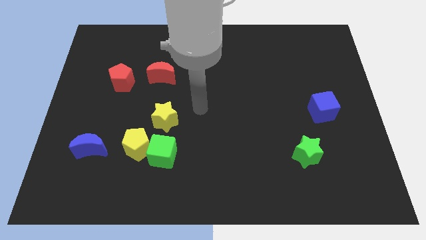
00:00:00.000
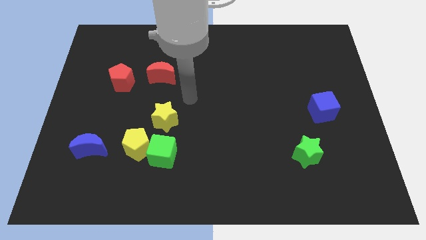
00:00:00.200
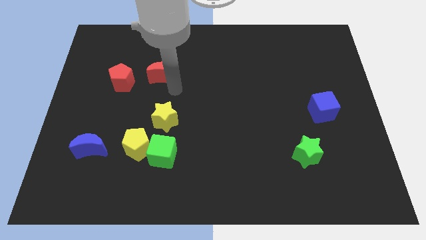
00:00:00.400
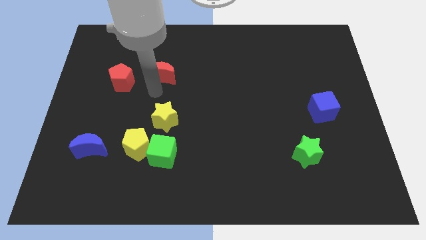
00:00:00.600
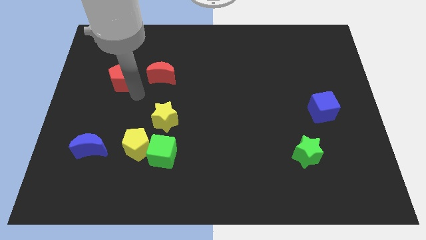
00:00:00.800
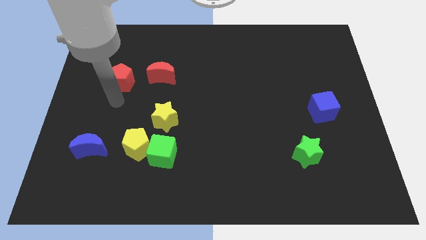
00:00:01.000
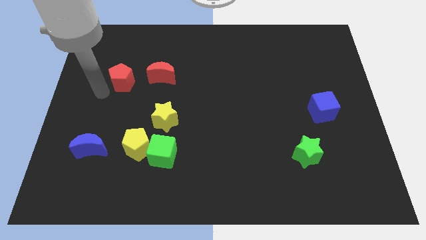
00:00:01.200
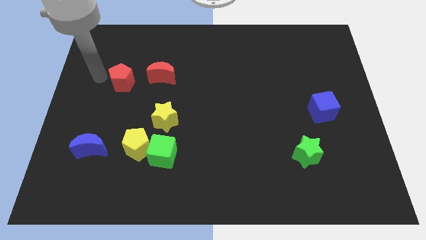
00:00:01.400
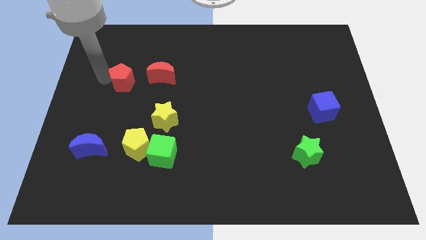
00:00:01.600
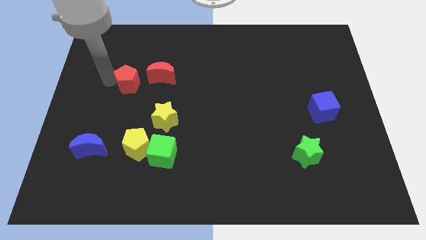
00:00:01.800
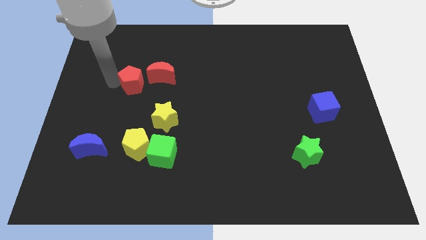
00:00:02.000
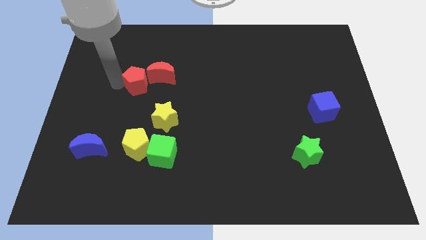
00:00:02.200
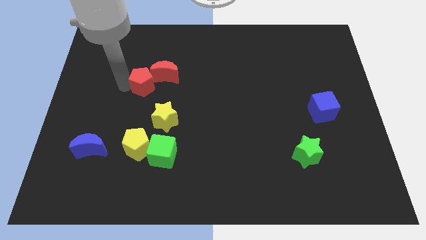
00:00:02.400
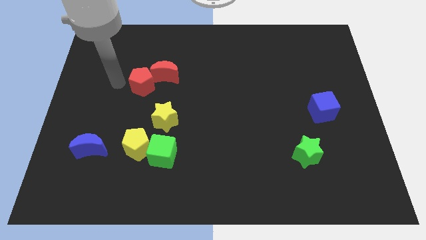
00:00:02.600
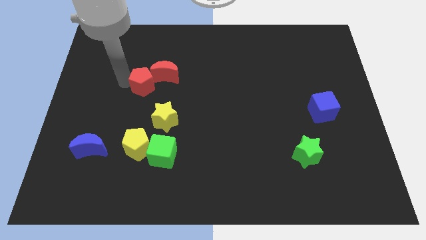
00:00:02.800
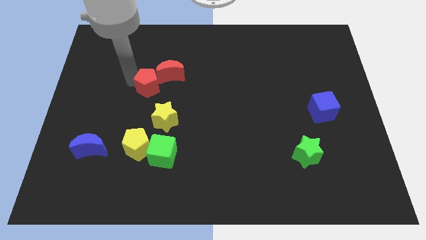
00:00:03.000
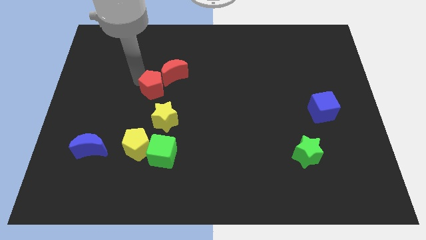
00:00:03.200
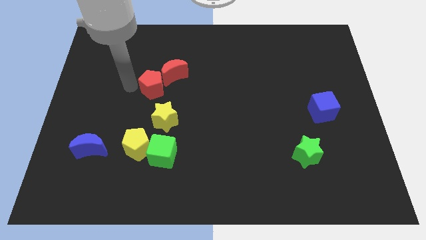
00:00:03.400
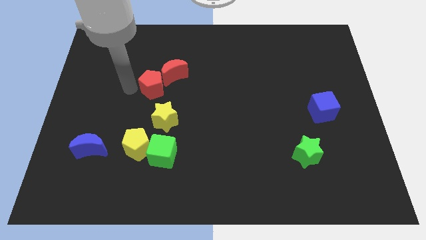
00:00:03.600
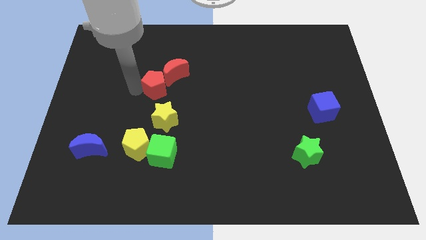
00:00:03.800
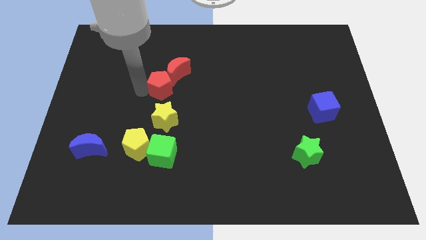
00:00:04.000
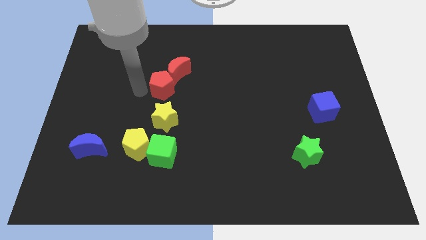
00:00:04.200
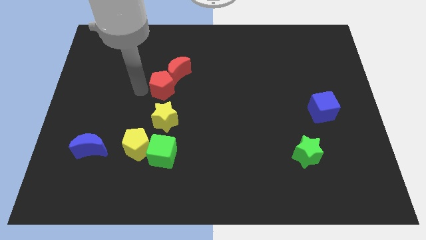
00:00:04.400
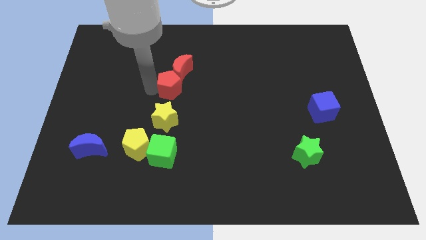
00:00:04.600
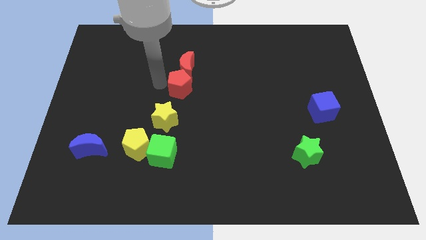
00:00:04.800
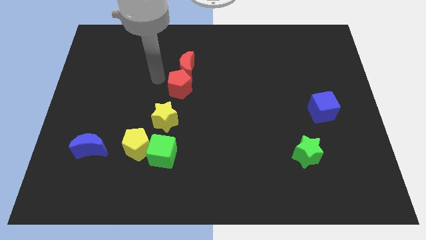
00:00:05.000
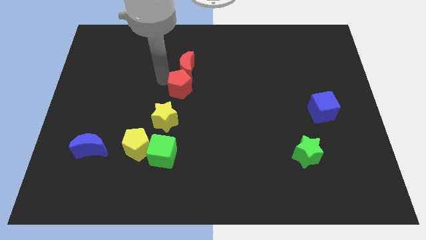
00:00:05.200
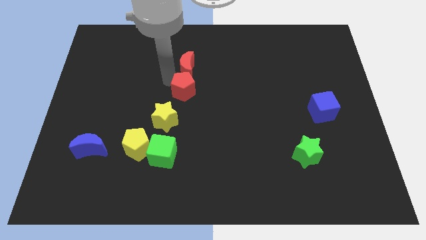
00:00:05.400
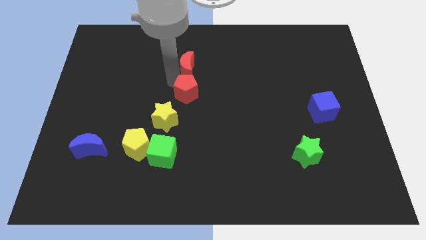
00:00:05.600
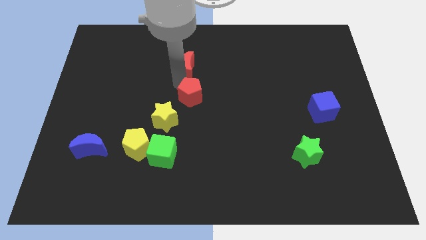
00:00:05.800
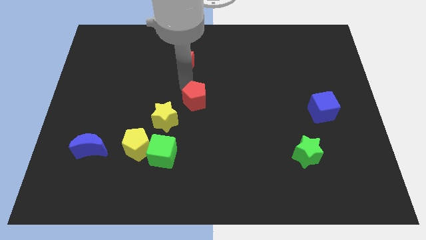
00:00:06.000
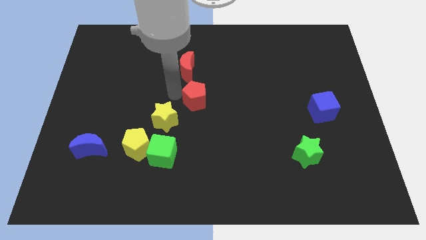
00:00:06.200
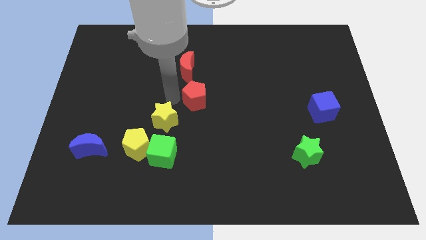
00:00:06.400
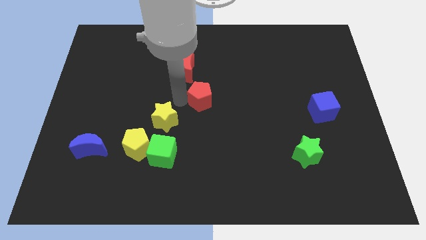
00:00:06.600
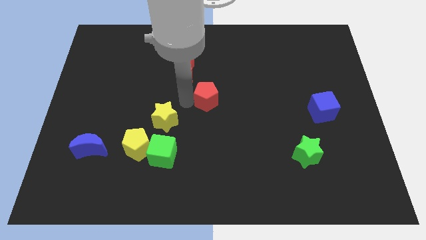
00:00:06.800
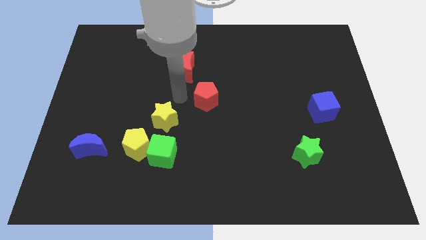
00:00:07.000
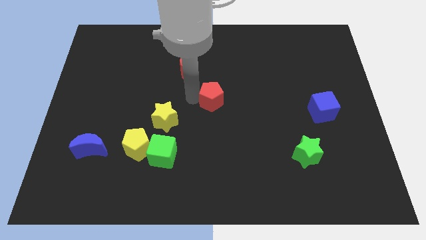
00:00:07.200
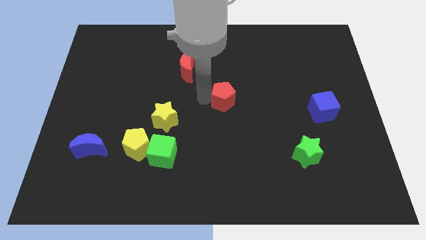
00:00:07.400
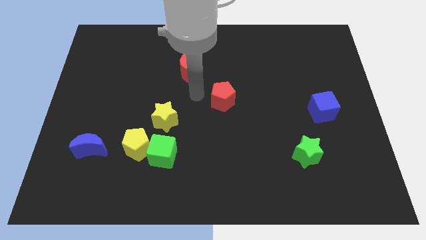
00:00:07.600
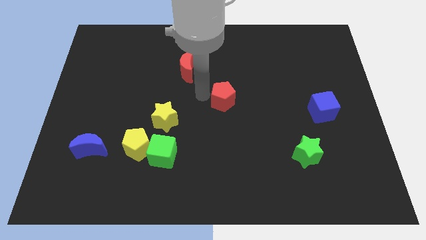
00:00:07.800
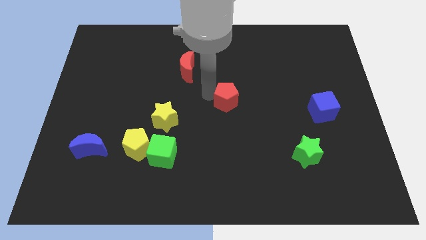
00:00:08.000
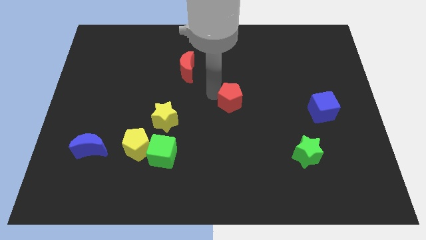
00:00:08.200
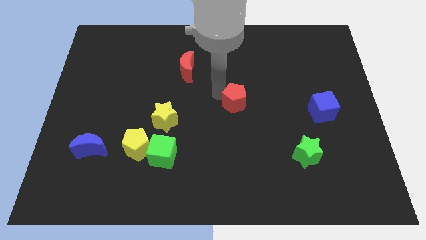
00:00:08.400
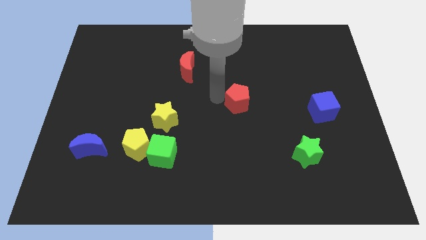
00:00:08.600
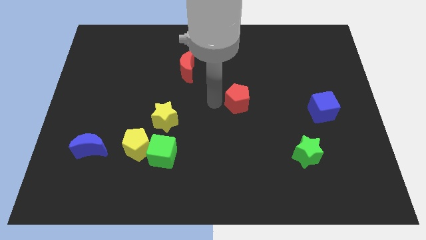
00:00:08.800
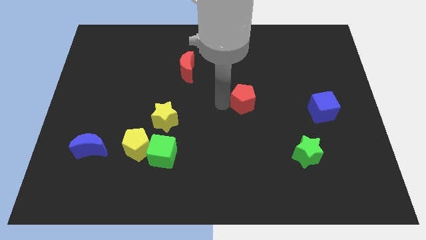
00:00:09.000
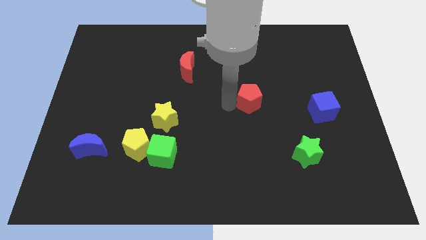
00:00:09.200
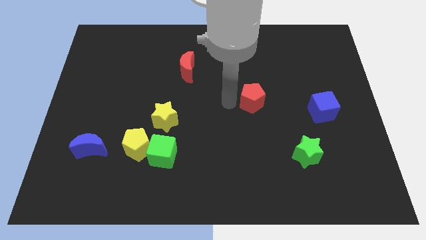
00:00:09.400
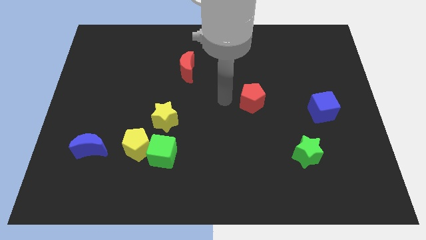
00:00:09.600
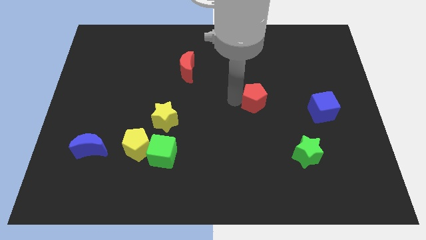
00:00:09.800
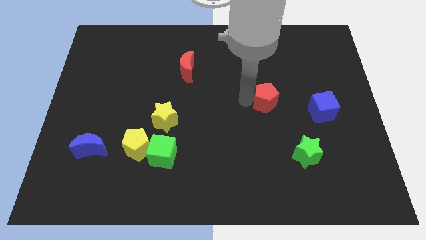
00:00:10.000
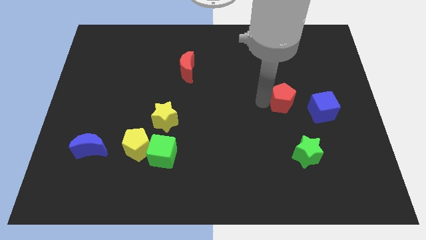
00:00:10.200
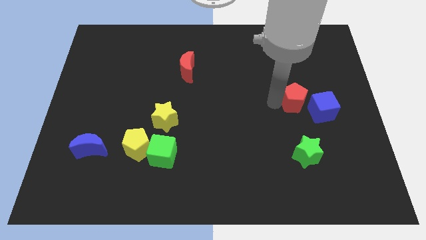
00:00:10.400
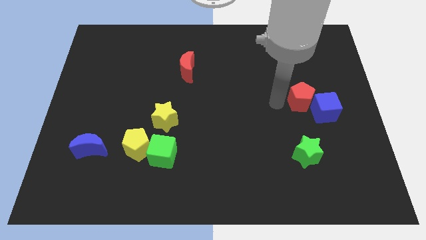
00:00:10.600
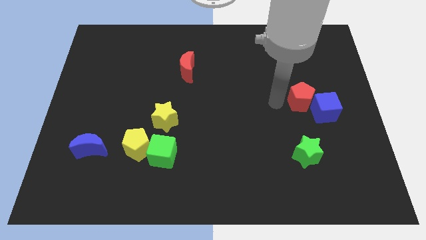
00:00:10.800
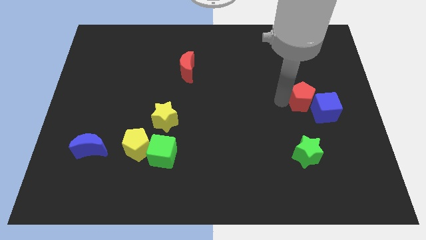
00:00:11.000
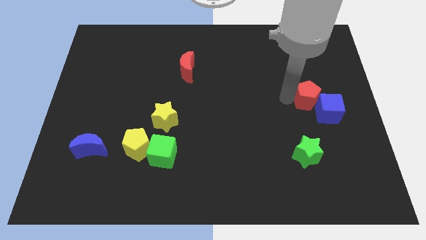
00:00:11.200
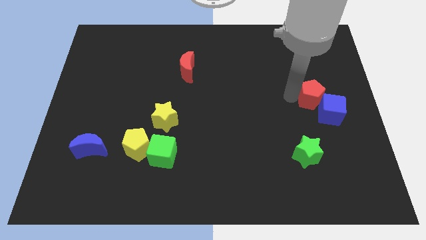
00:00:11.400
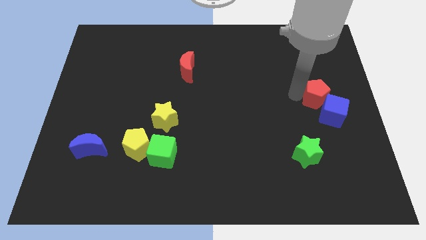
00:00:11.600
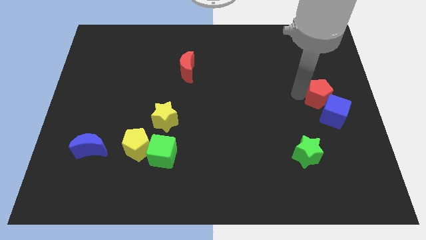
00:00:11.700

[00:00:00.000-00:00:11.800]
put the red pentagon to the center right

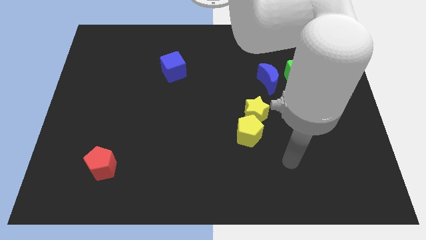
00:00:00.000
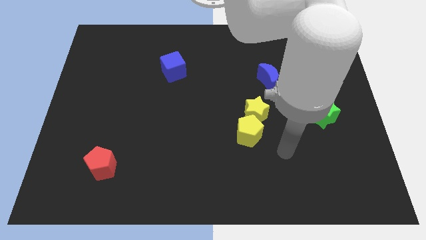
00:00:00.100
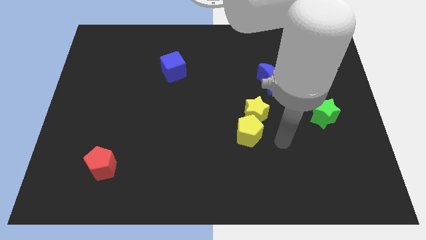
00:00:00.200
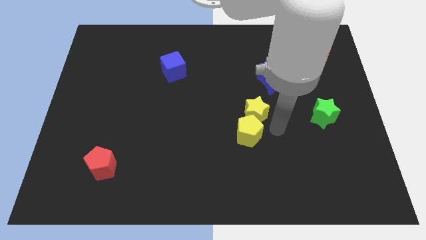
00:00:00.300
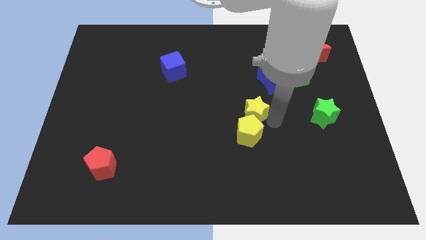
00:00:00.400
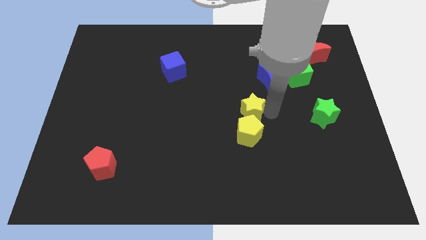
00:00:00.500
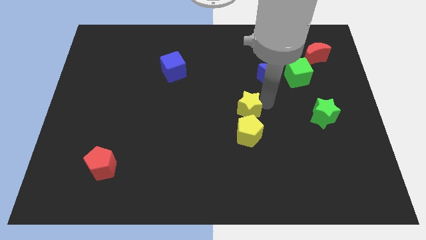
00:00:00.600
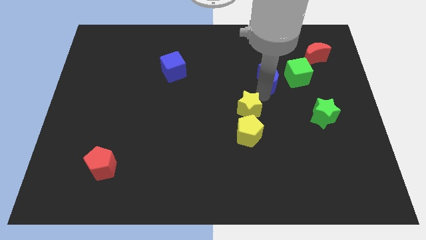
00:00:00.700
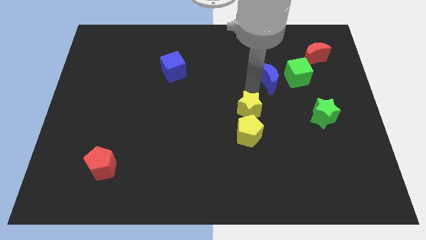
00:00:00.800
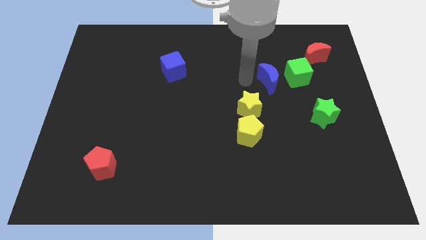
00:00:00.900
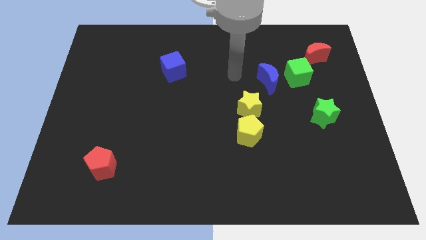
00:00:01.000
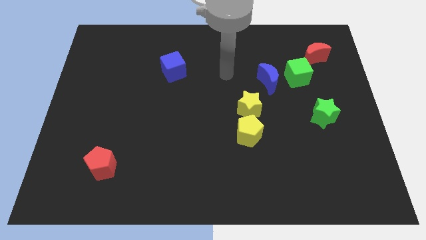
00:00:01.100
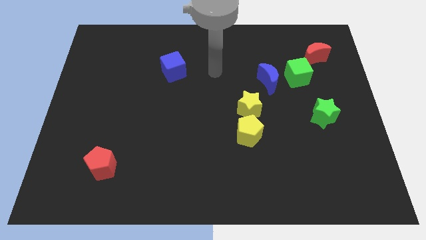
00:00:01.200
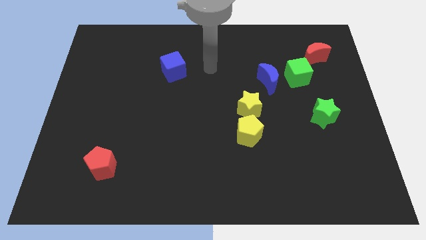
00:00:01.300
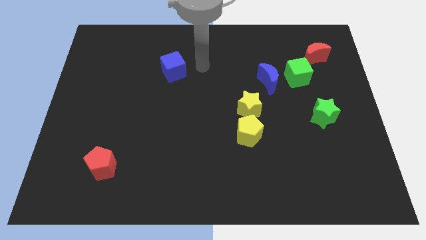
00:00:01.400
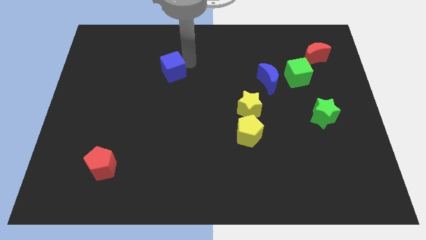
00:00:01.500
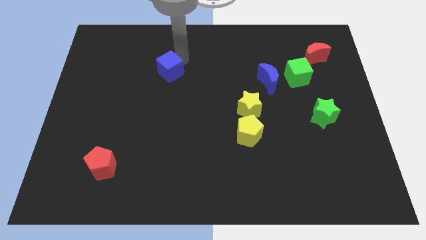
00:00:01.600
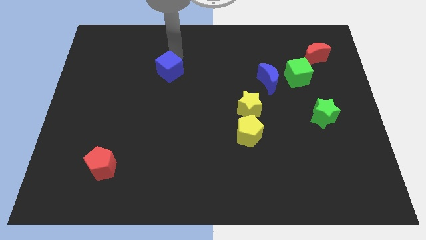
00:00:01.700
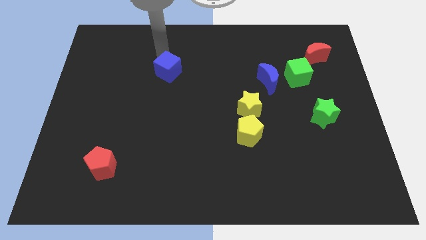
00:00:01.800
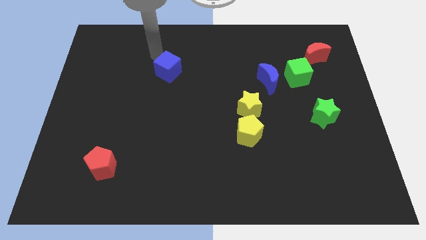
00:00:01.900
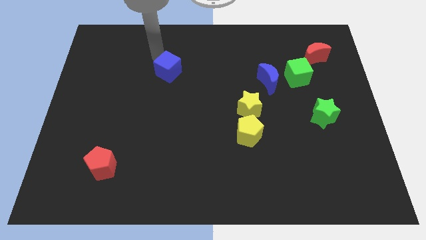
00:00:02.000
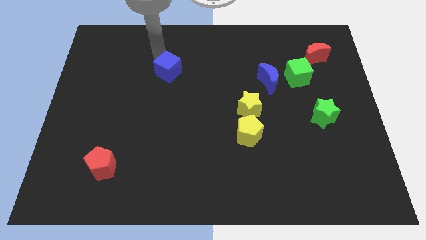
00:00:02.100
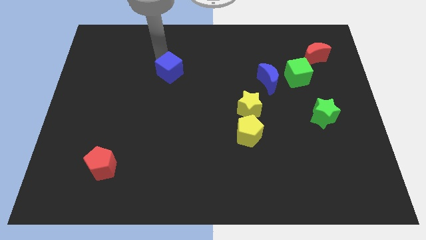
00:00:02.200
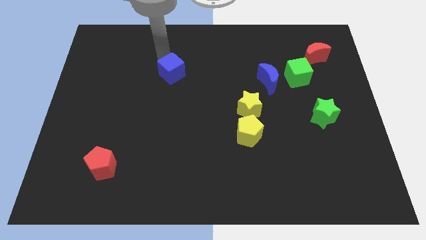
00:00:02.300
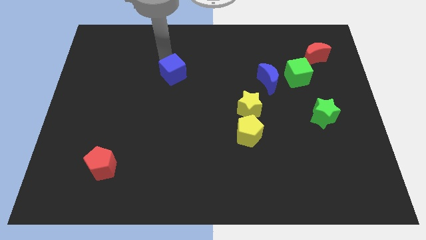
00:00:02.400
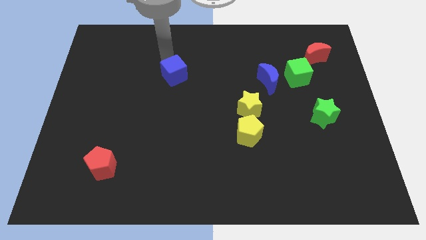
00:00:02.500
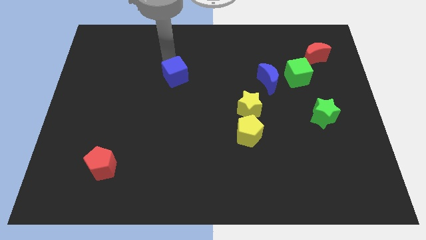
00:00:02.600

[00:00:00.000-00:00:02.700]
put the blue cube to the middle of the board
